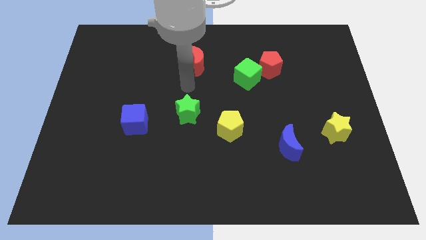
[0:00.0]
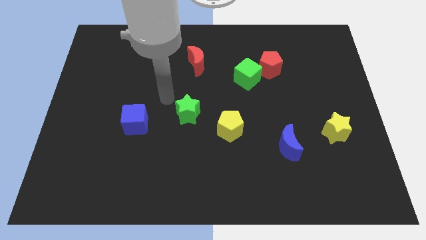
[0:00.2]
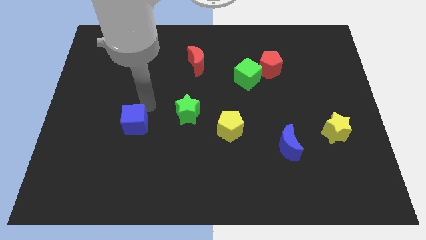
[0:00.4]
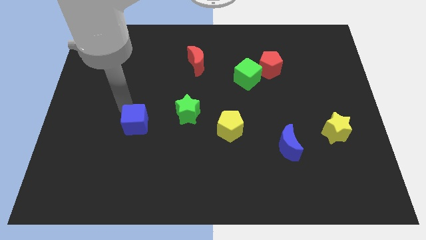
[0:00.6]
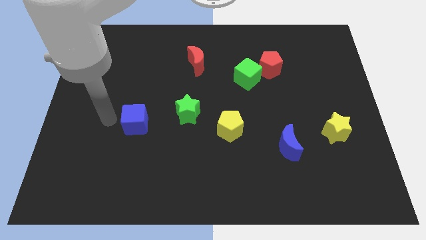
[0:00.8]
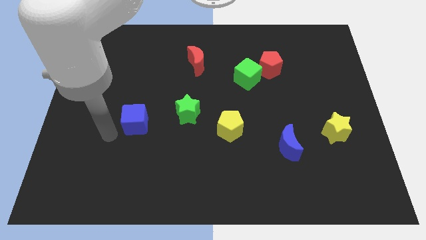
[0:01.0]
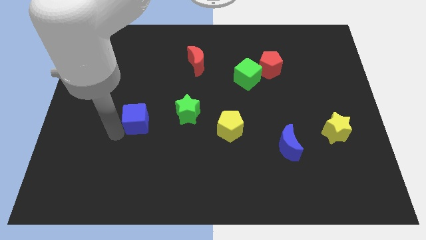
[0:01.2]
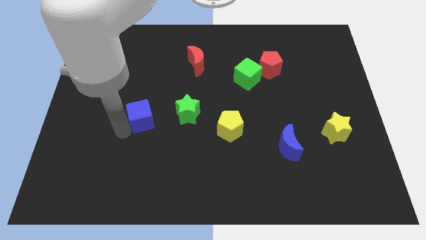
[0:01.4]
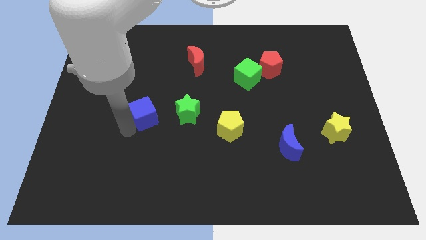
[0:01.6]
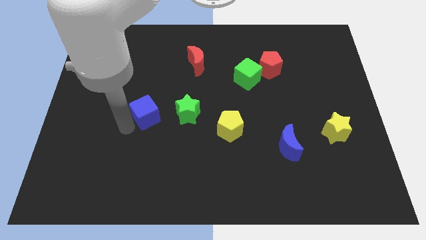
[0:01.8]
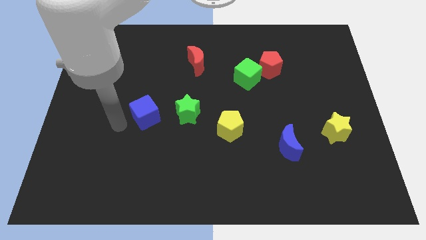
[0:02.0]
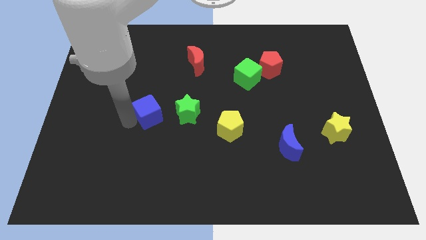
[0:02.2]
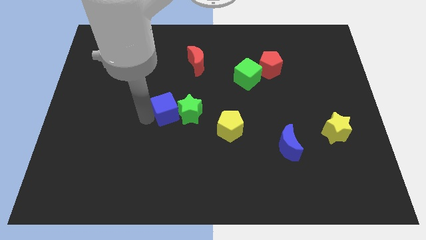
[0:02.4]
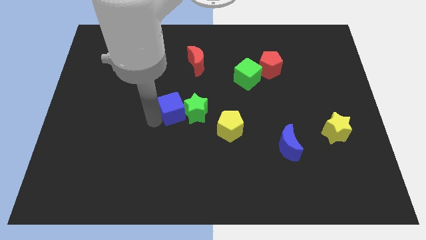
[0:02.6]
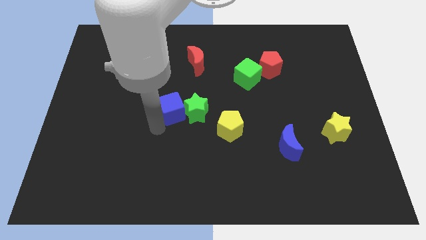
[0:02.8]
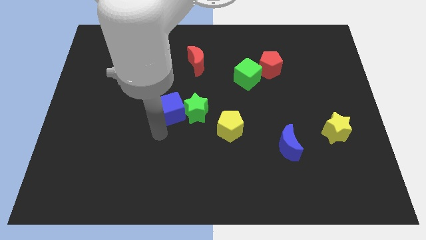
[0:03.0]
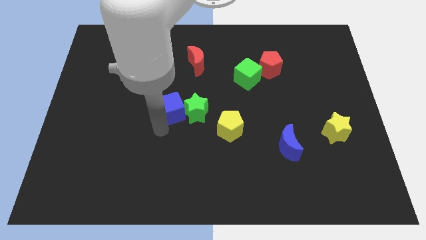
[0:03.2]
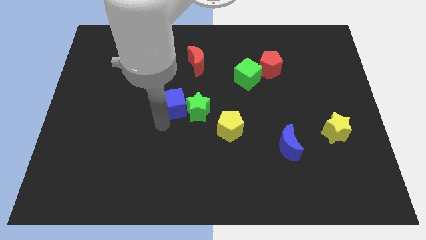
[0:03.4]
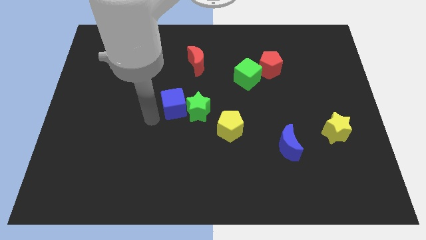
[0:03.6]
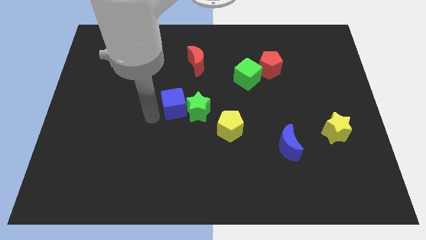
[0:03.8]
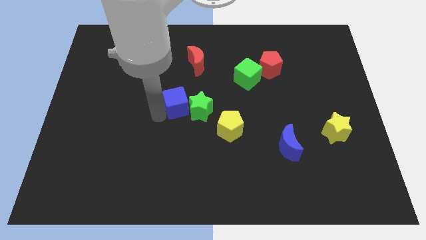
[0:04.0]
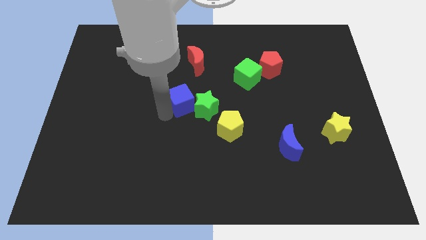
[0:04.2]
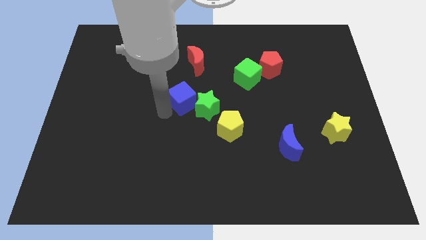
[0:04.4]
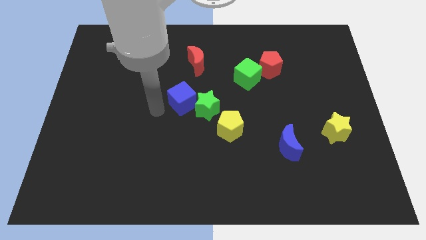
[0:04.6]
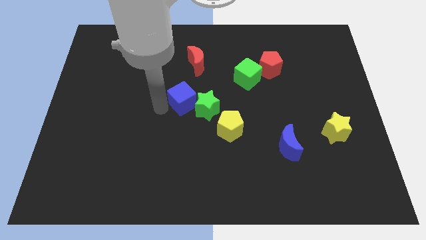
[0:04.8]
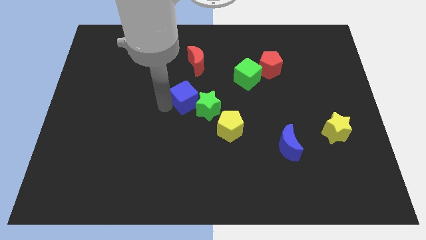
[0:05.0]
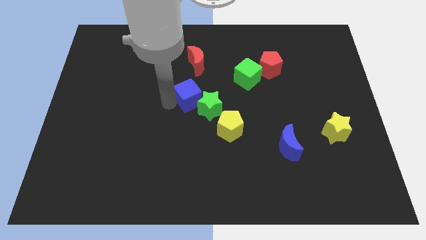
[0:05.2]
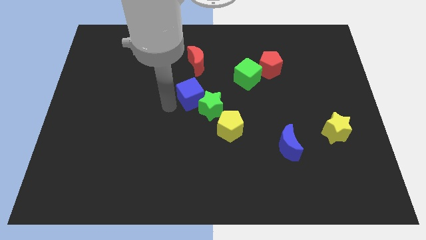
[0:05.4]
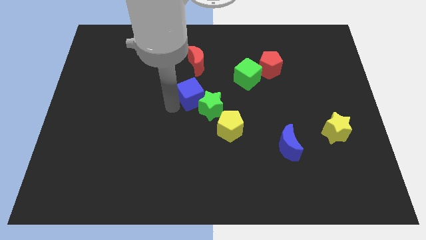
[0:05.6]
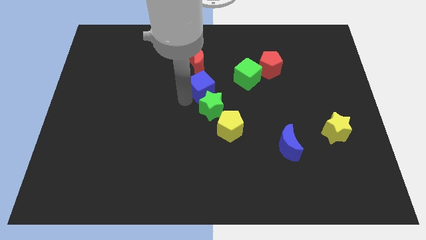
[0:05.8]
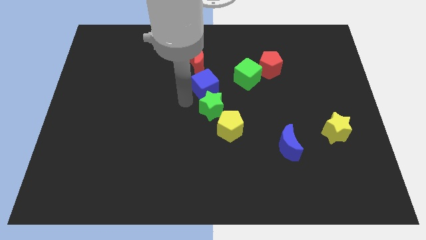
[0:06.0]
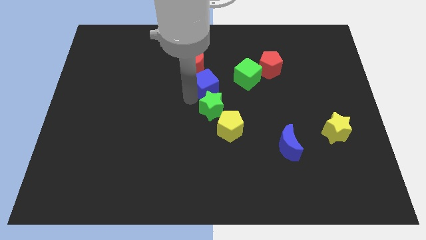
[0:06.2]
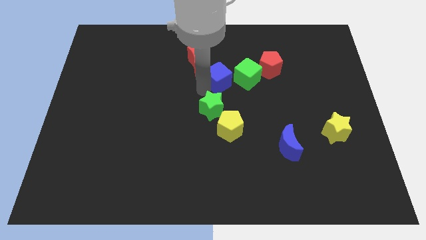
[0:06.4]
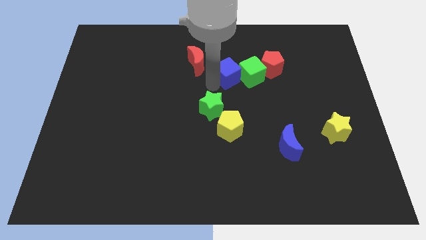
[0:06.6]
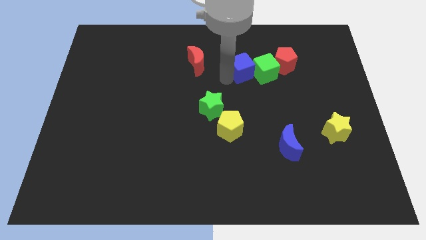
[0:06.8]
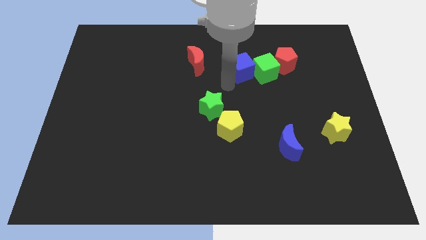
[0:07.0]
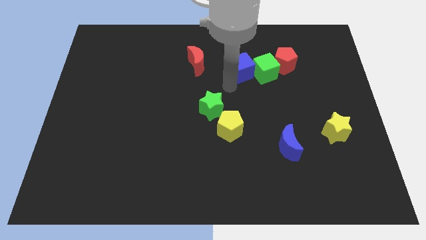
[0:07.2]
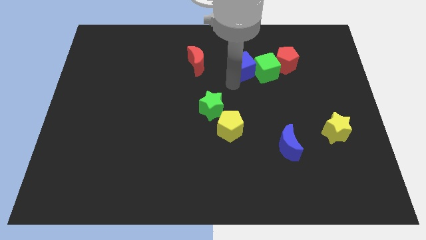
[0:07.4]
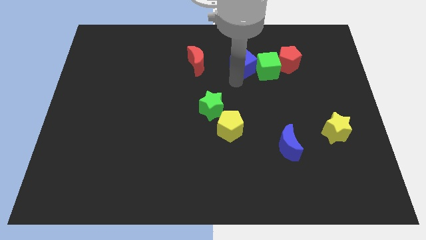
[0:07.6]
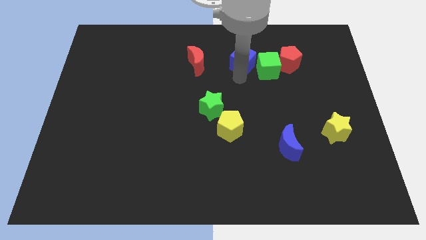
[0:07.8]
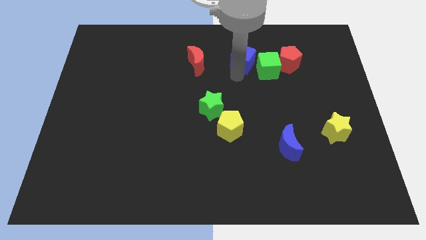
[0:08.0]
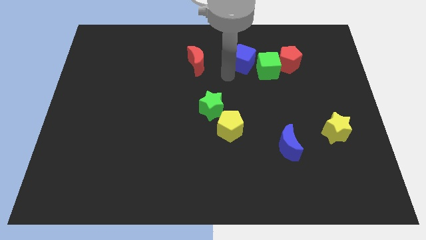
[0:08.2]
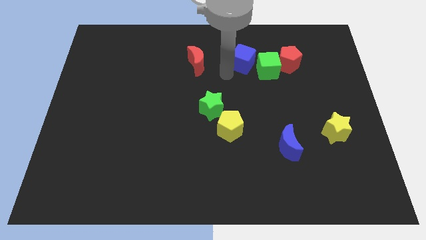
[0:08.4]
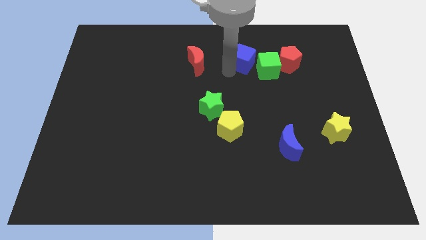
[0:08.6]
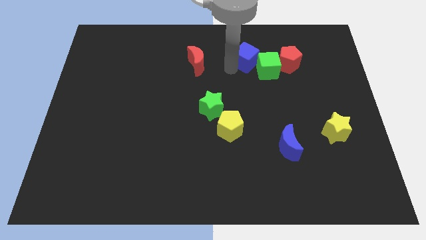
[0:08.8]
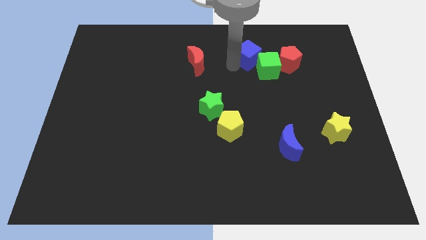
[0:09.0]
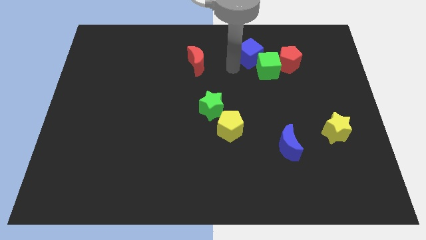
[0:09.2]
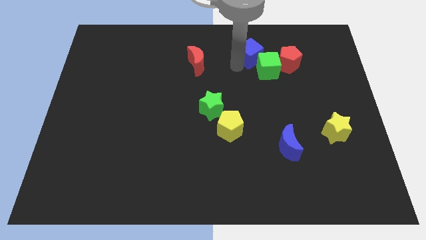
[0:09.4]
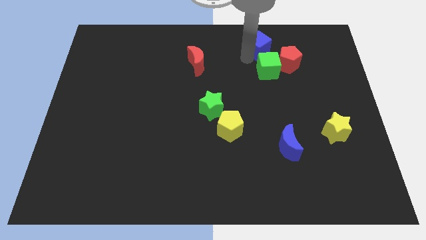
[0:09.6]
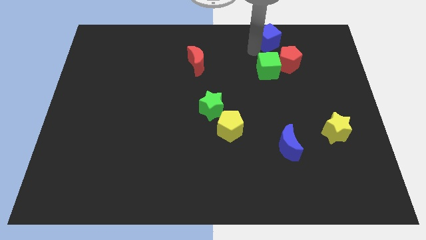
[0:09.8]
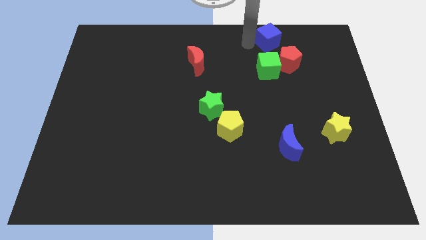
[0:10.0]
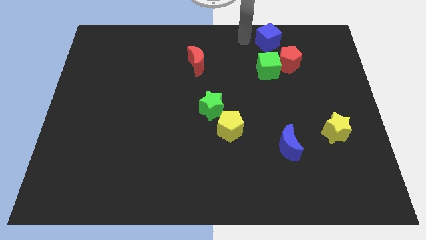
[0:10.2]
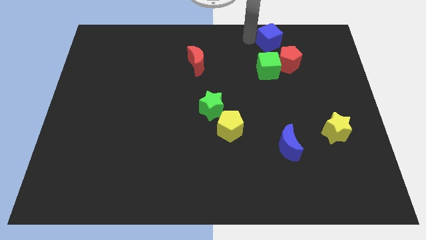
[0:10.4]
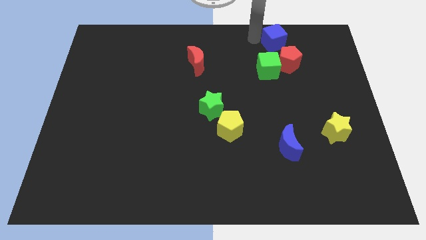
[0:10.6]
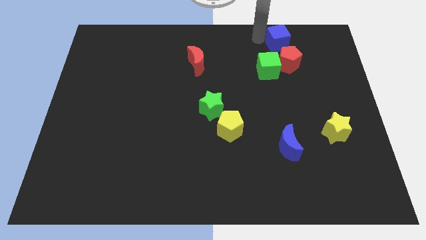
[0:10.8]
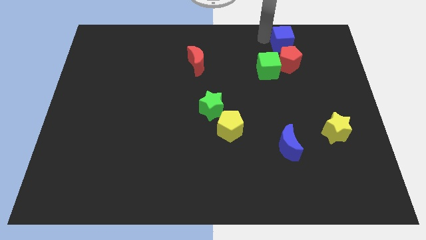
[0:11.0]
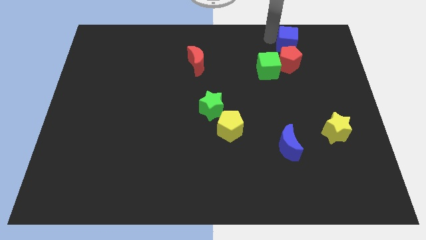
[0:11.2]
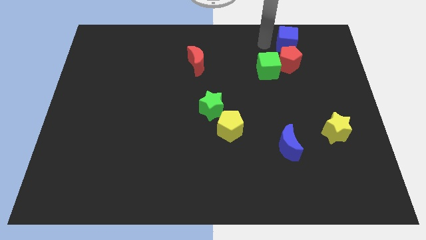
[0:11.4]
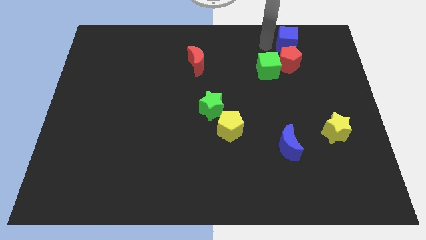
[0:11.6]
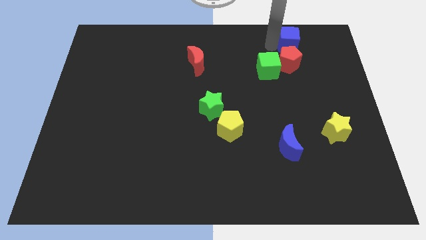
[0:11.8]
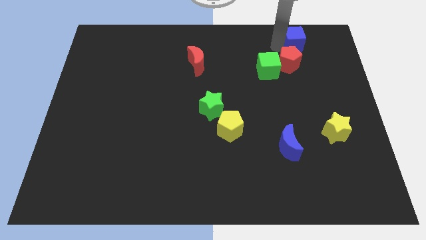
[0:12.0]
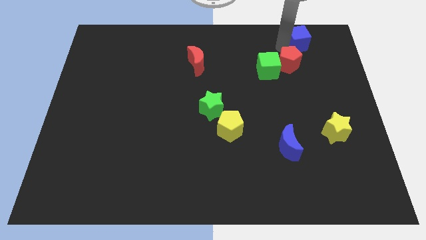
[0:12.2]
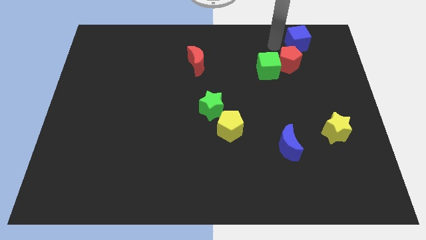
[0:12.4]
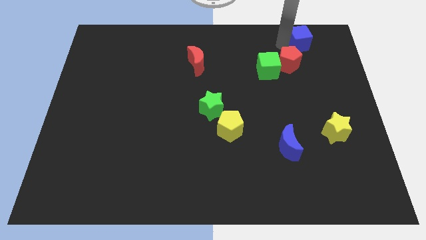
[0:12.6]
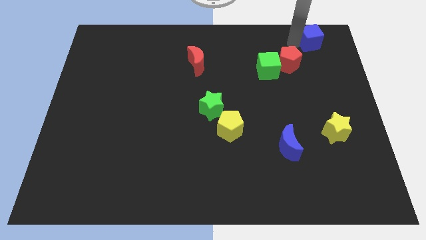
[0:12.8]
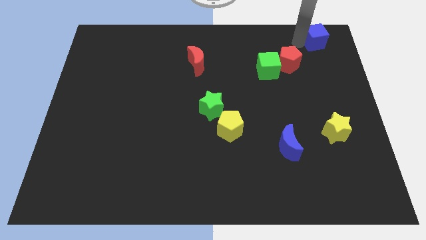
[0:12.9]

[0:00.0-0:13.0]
put the blue cube to the top right corner

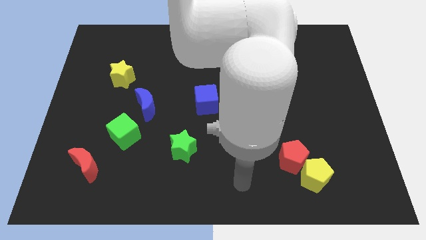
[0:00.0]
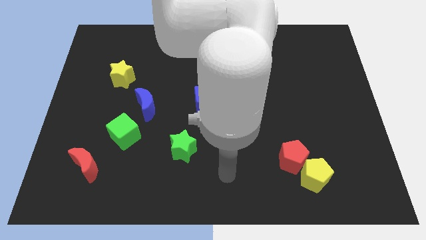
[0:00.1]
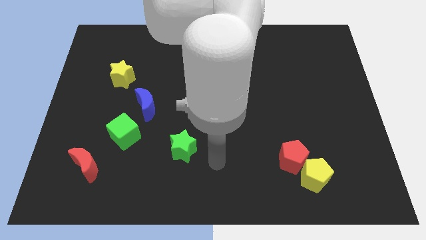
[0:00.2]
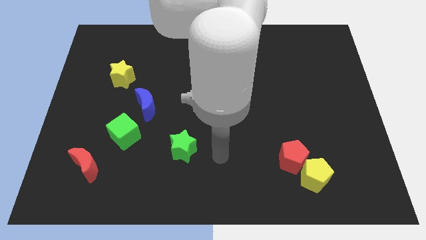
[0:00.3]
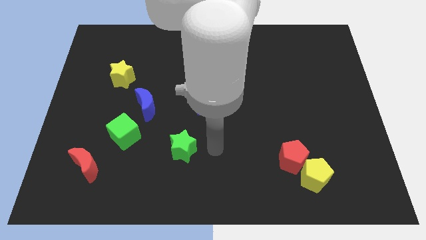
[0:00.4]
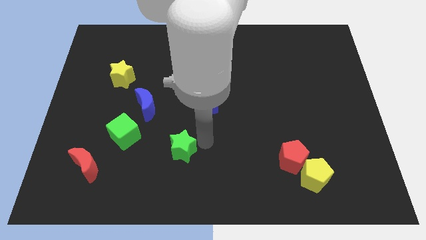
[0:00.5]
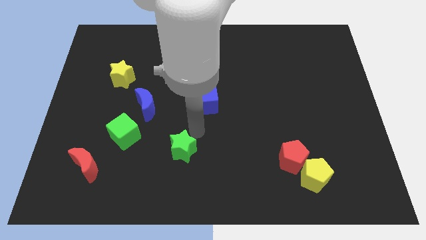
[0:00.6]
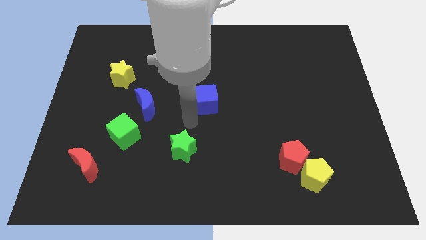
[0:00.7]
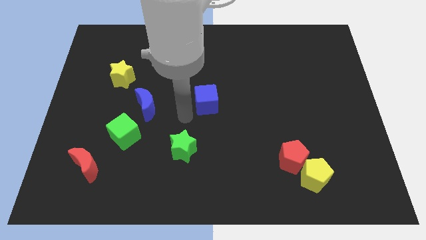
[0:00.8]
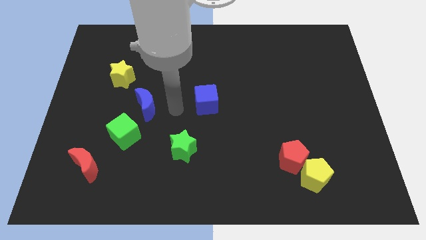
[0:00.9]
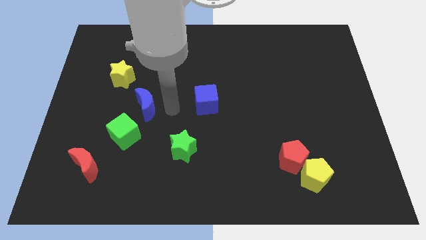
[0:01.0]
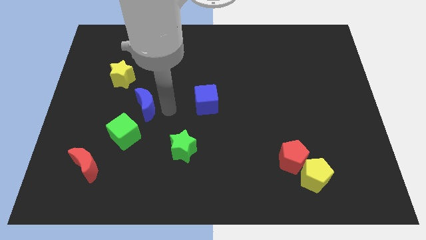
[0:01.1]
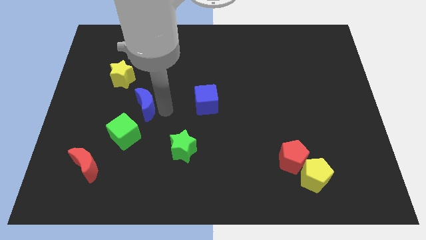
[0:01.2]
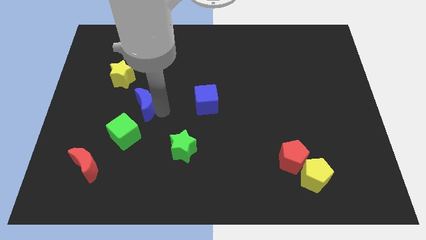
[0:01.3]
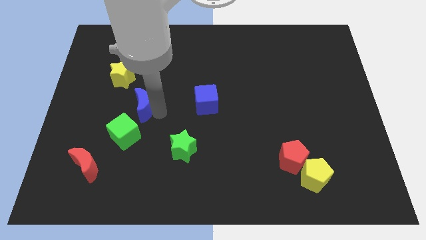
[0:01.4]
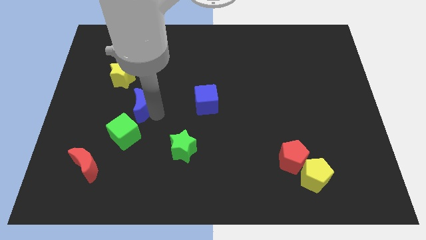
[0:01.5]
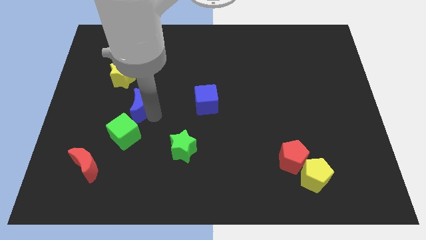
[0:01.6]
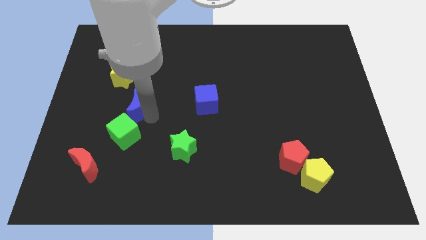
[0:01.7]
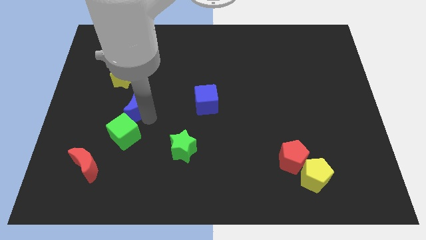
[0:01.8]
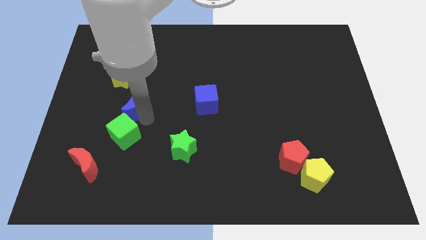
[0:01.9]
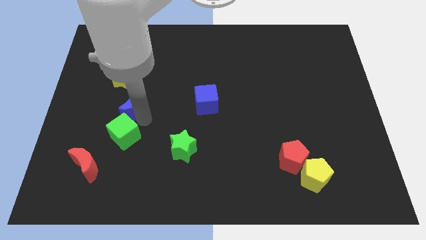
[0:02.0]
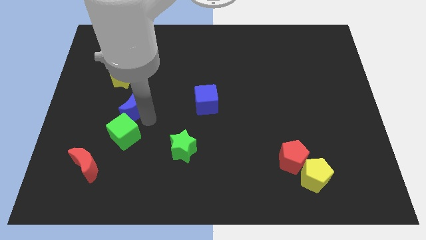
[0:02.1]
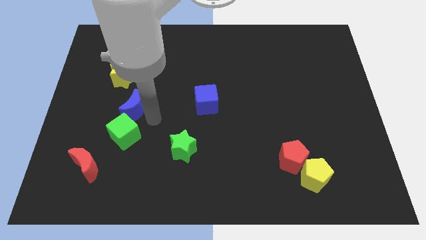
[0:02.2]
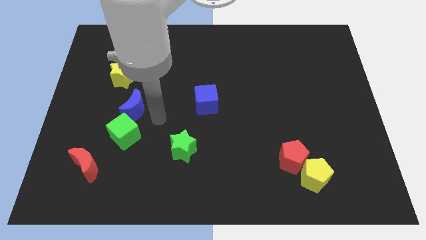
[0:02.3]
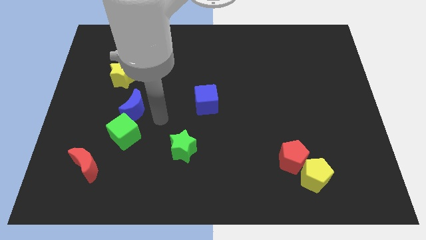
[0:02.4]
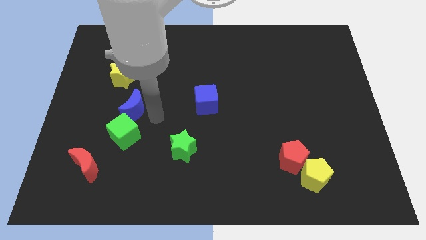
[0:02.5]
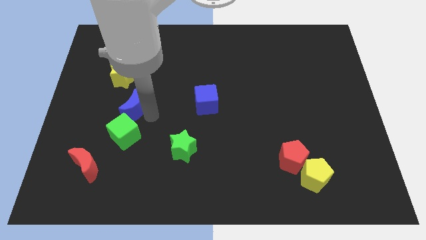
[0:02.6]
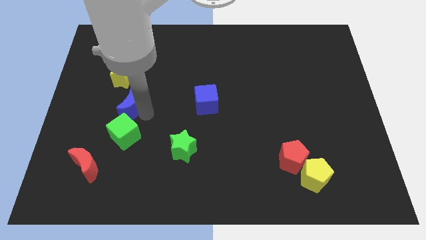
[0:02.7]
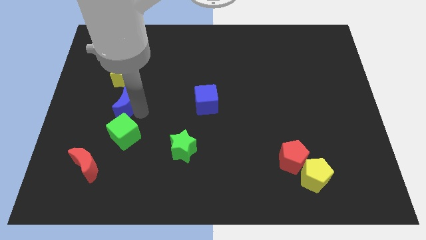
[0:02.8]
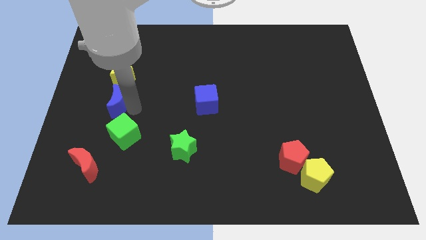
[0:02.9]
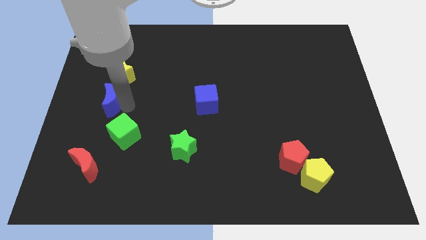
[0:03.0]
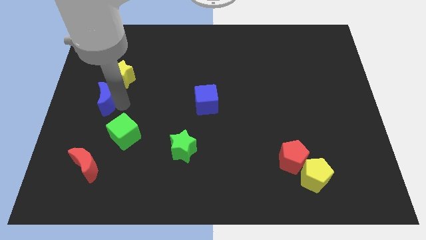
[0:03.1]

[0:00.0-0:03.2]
push the blue moon to the left side
